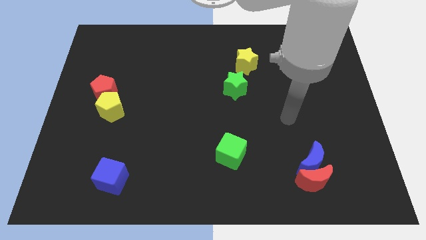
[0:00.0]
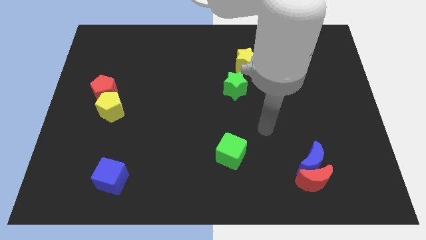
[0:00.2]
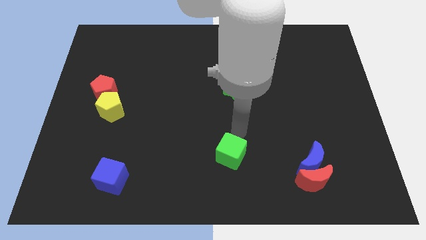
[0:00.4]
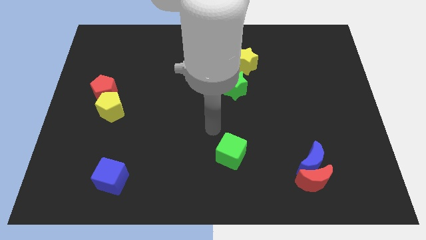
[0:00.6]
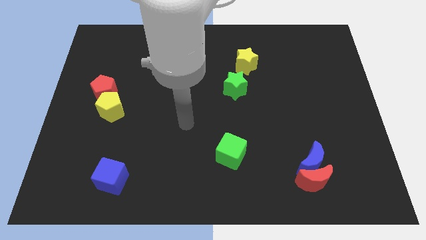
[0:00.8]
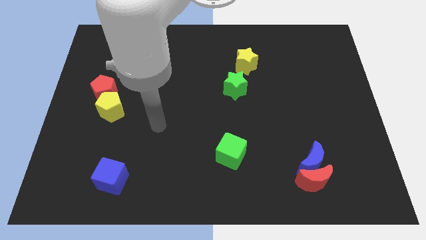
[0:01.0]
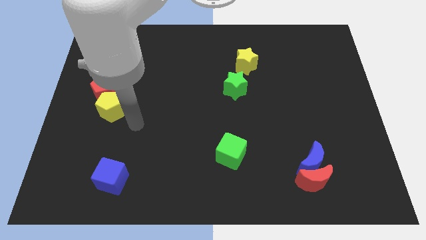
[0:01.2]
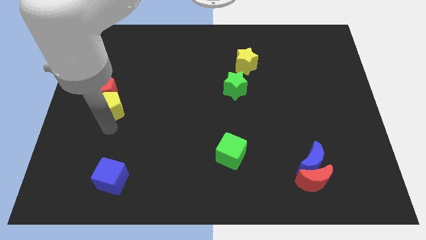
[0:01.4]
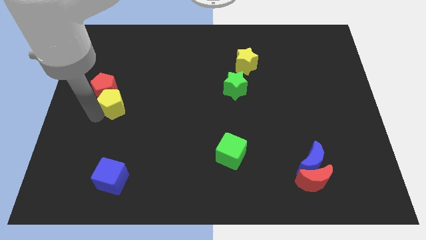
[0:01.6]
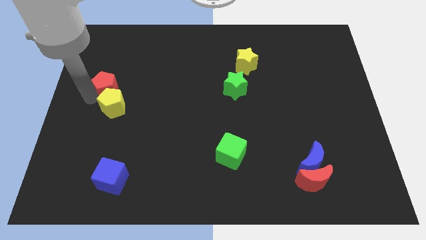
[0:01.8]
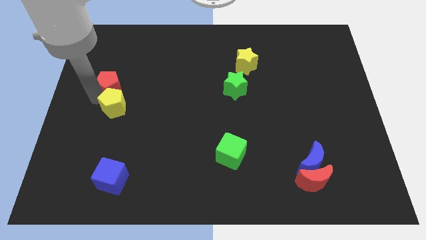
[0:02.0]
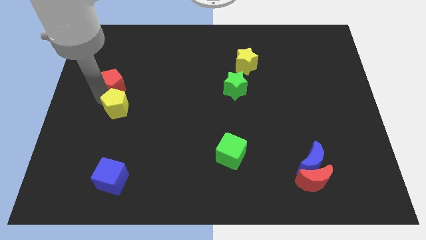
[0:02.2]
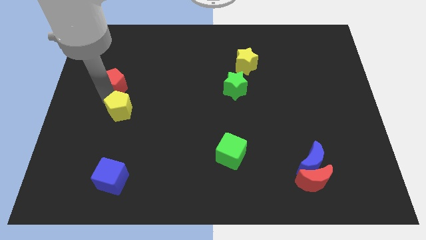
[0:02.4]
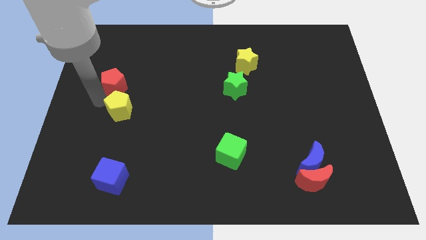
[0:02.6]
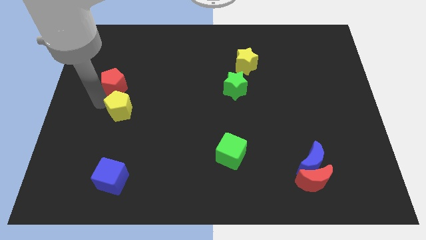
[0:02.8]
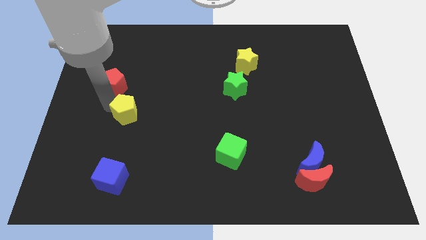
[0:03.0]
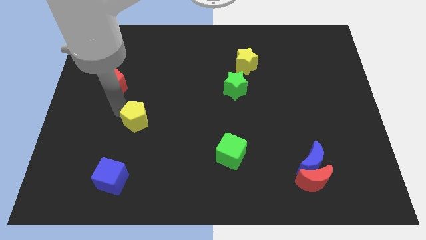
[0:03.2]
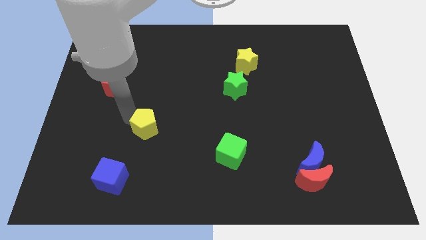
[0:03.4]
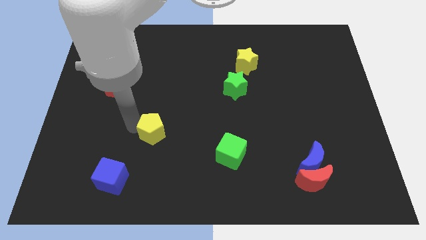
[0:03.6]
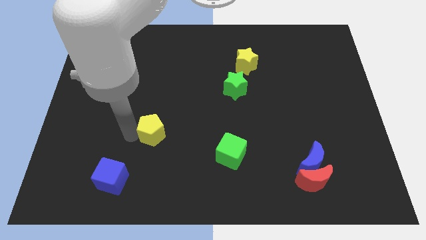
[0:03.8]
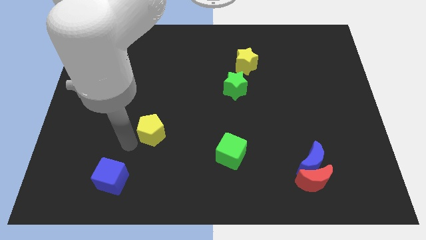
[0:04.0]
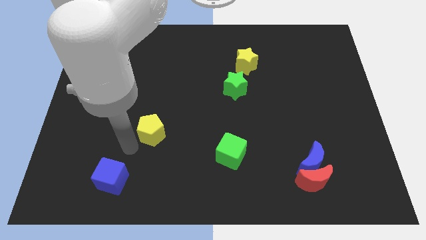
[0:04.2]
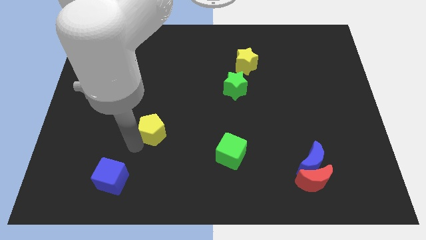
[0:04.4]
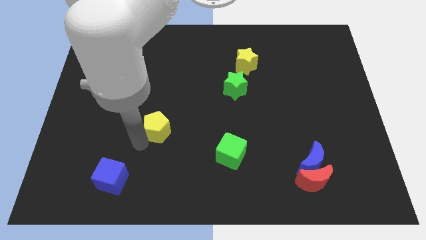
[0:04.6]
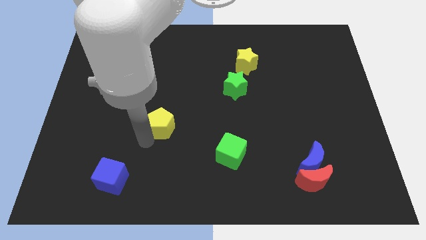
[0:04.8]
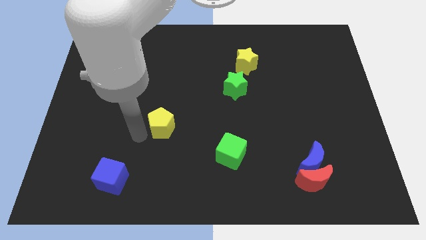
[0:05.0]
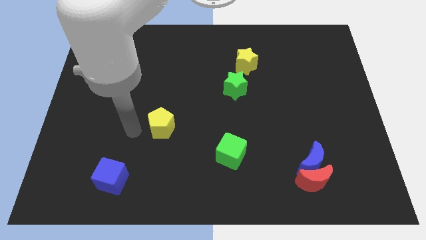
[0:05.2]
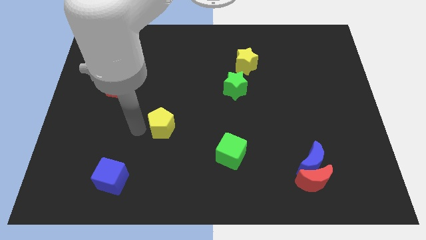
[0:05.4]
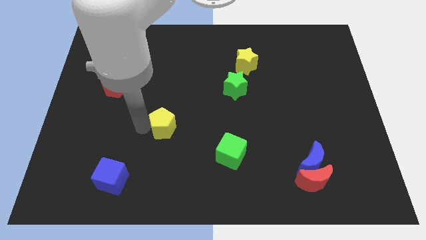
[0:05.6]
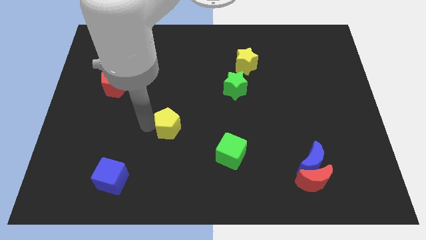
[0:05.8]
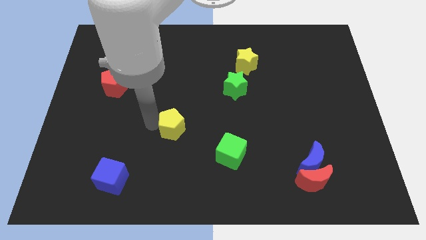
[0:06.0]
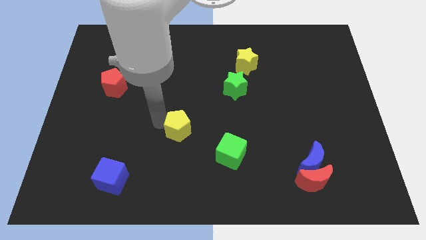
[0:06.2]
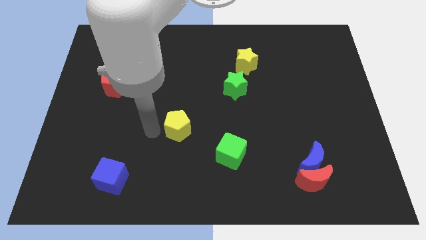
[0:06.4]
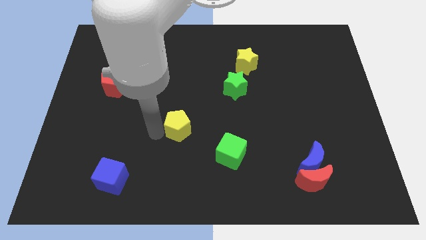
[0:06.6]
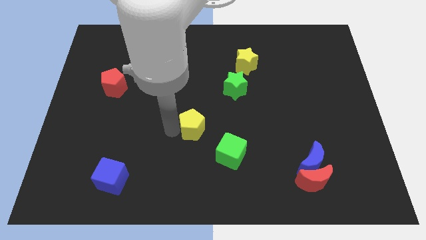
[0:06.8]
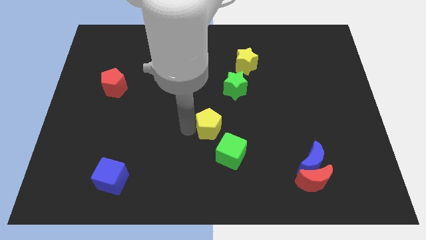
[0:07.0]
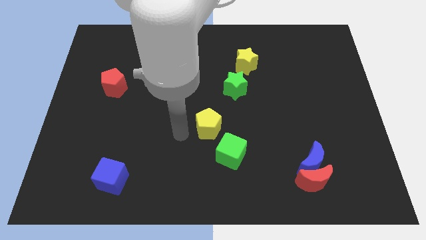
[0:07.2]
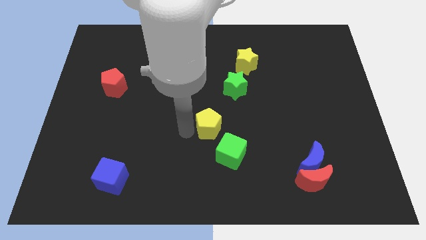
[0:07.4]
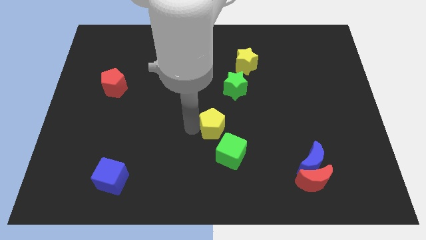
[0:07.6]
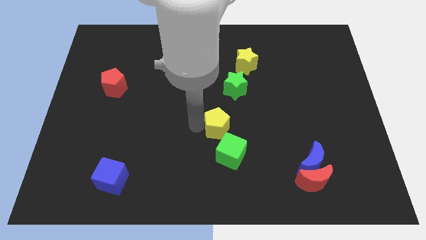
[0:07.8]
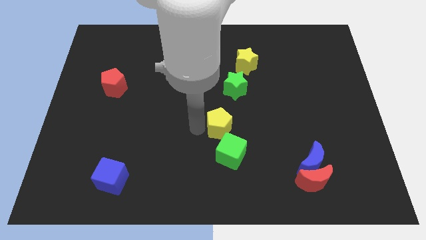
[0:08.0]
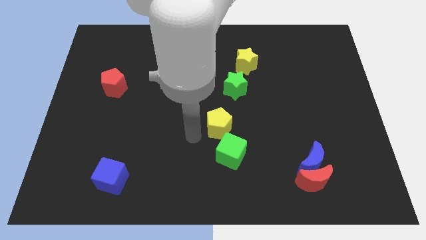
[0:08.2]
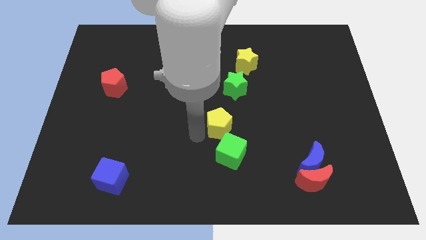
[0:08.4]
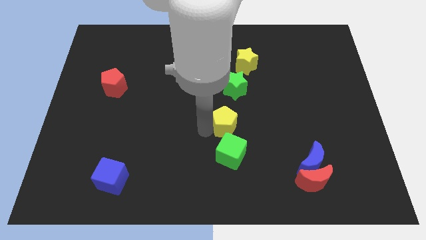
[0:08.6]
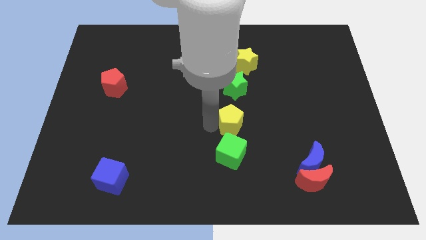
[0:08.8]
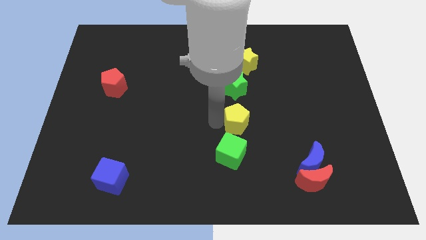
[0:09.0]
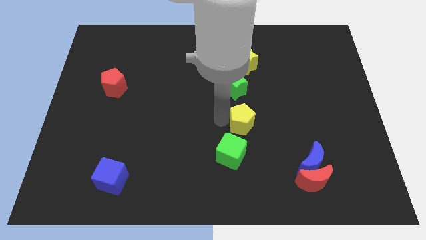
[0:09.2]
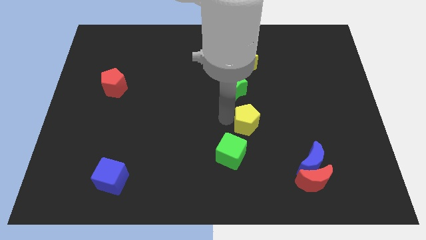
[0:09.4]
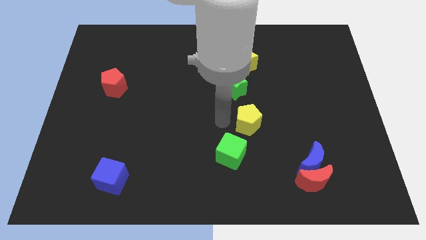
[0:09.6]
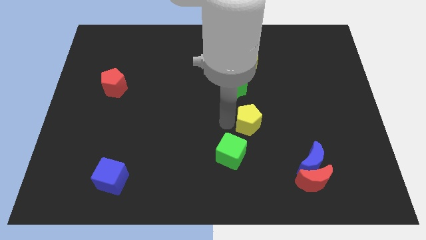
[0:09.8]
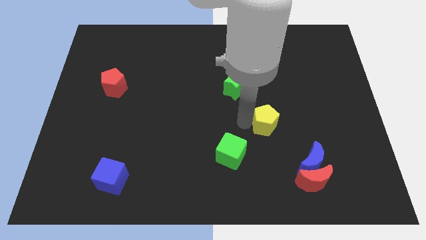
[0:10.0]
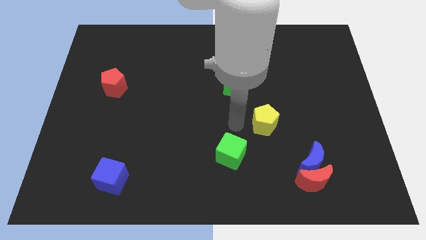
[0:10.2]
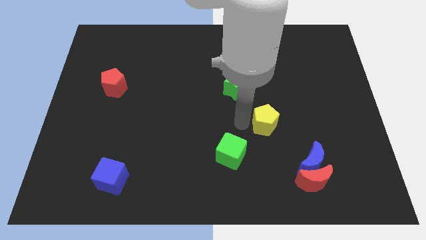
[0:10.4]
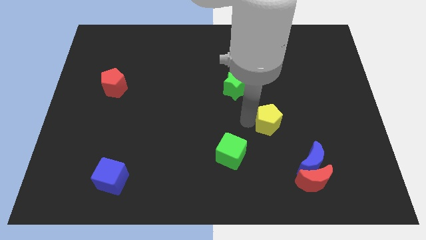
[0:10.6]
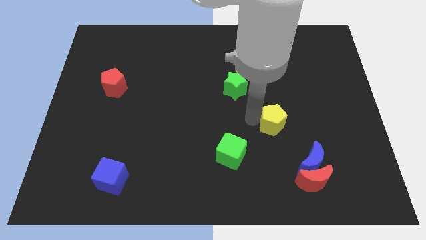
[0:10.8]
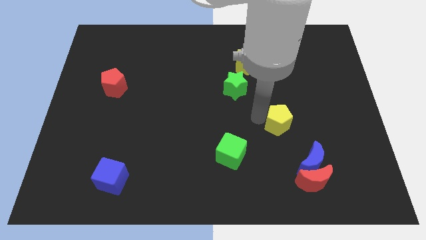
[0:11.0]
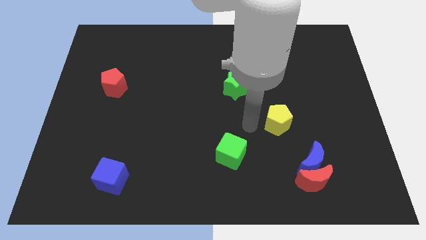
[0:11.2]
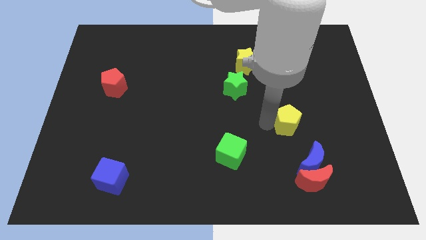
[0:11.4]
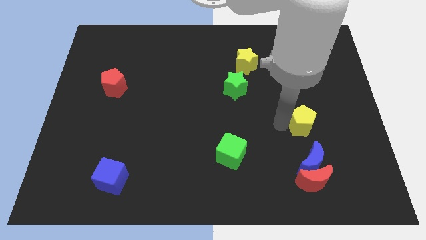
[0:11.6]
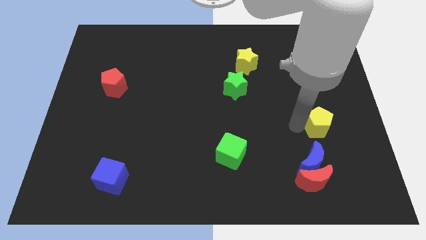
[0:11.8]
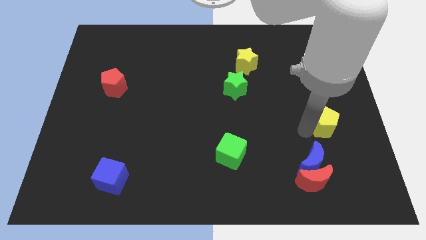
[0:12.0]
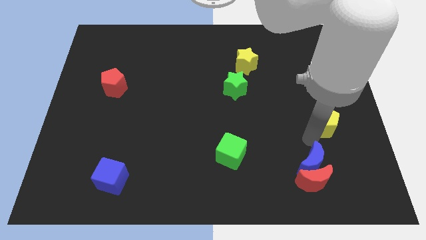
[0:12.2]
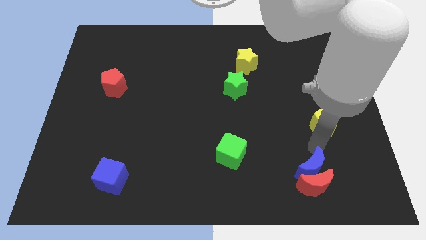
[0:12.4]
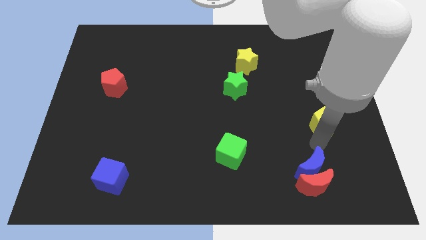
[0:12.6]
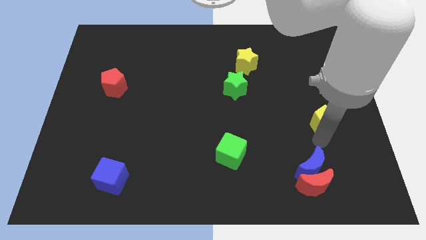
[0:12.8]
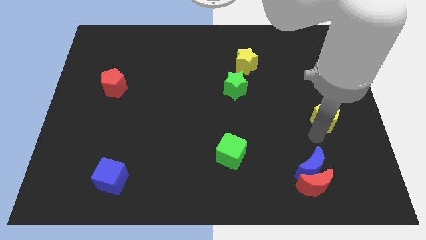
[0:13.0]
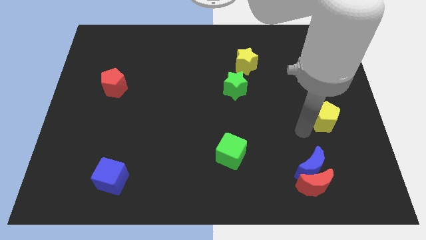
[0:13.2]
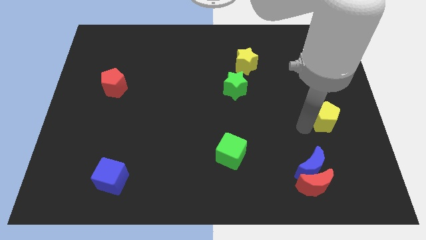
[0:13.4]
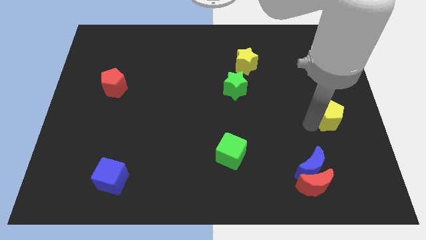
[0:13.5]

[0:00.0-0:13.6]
push the yellow pentagon to the center right

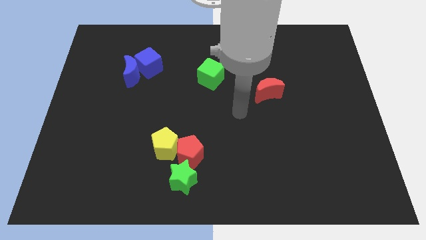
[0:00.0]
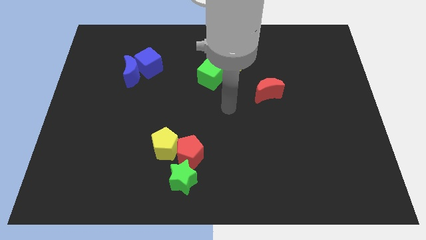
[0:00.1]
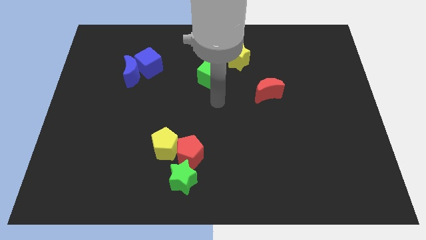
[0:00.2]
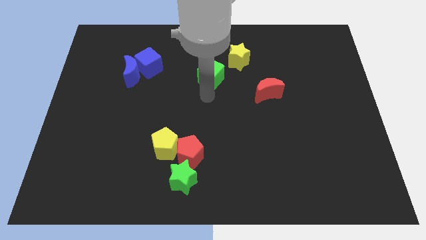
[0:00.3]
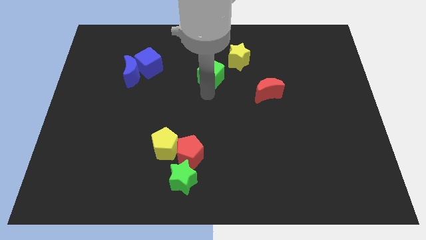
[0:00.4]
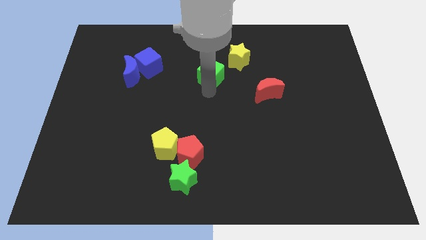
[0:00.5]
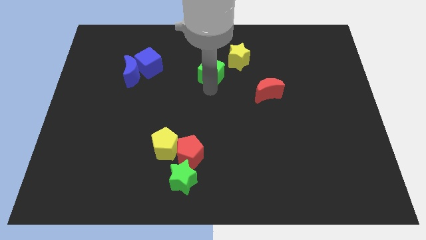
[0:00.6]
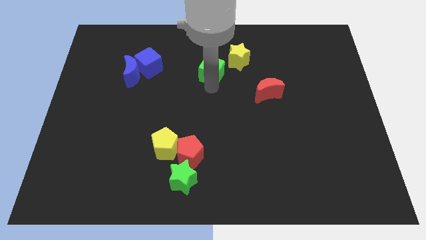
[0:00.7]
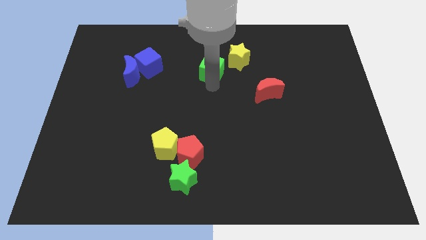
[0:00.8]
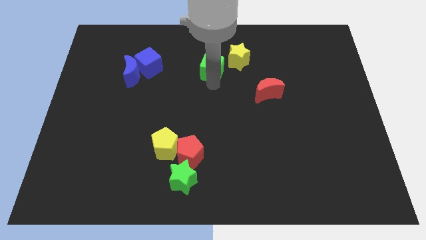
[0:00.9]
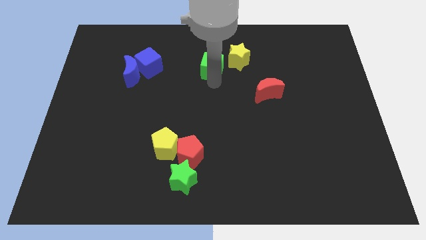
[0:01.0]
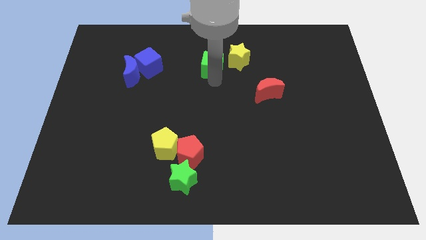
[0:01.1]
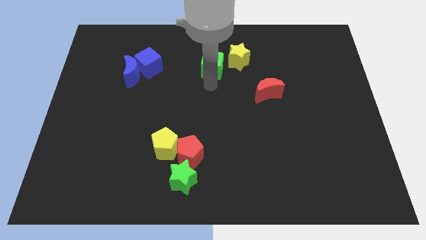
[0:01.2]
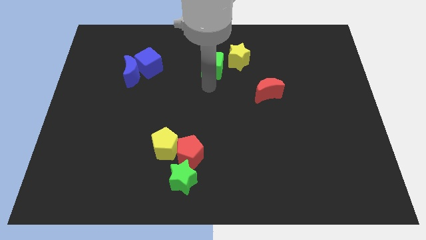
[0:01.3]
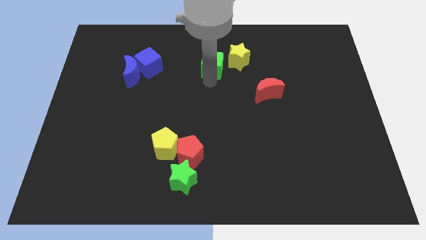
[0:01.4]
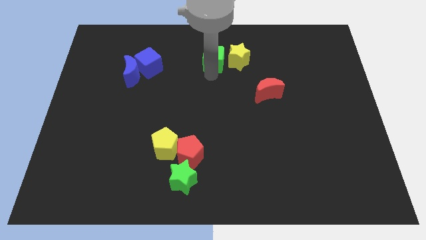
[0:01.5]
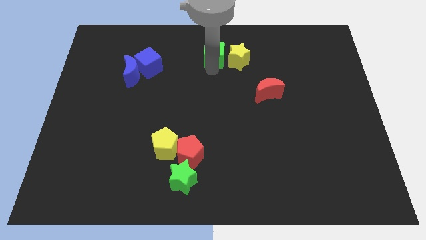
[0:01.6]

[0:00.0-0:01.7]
put the green cube to the top side
